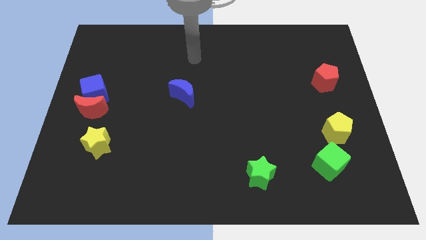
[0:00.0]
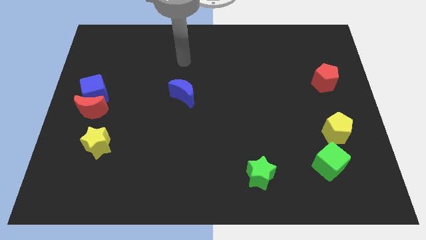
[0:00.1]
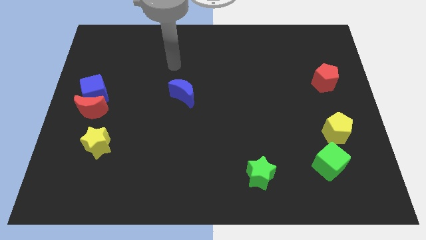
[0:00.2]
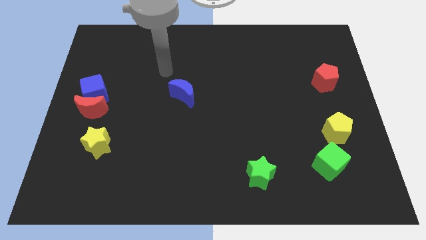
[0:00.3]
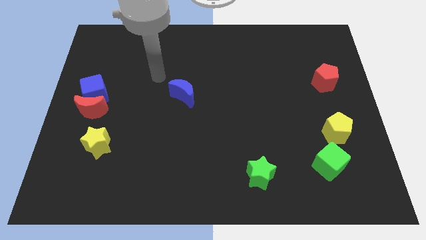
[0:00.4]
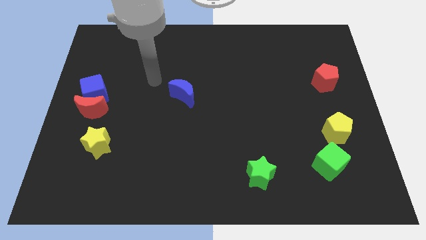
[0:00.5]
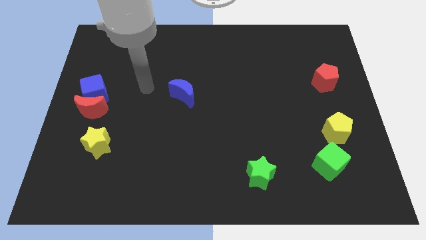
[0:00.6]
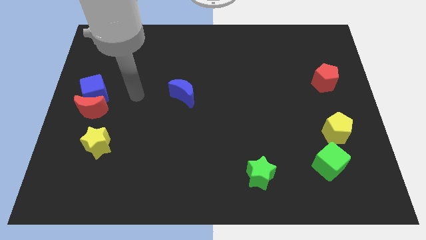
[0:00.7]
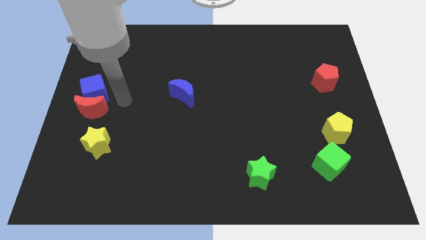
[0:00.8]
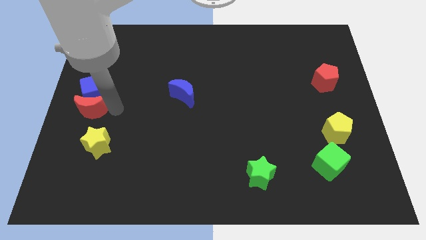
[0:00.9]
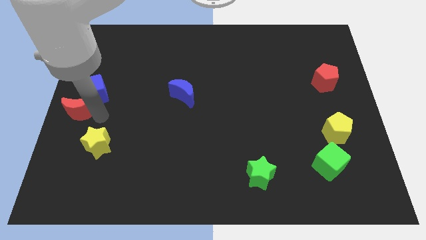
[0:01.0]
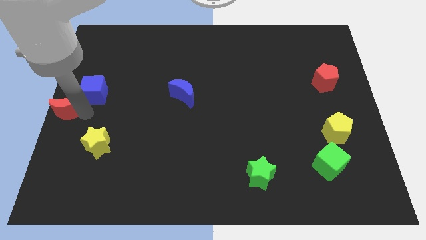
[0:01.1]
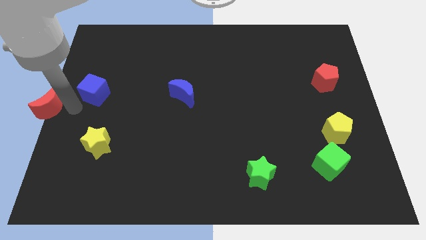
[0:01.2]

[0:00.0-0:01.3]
separate the blue cube from the red moon

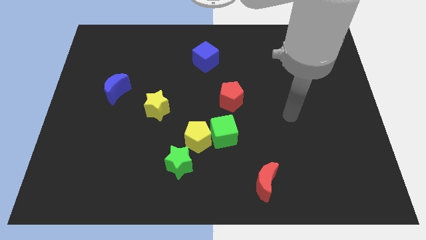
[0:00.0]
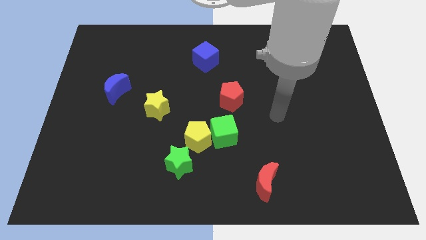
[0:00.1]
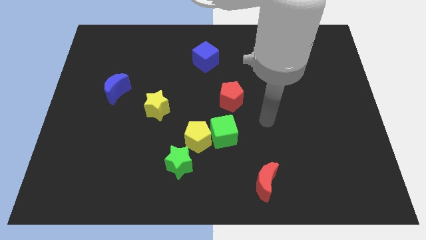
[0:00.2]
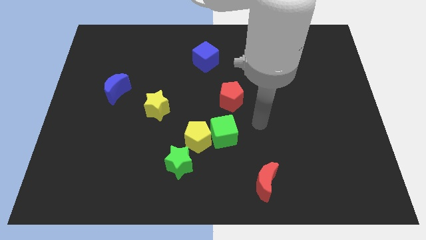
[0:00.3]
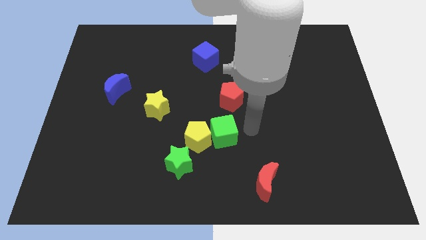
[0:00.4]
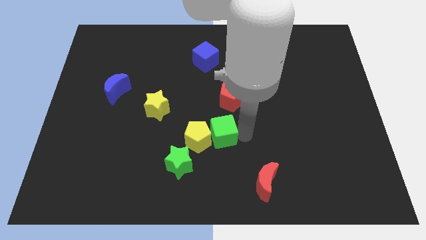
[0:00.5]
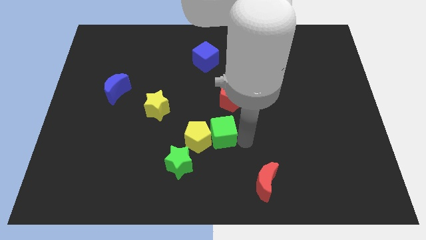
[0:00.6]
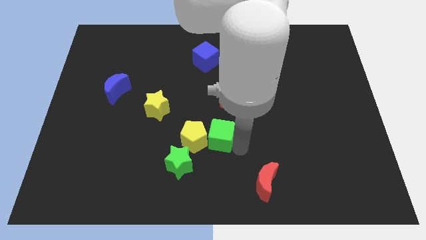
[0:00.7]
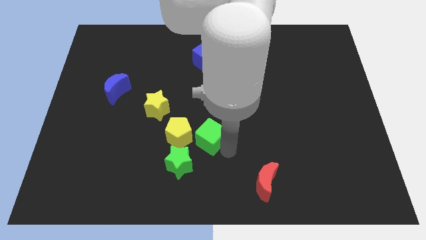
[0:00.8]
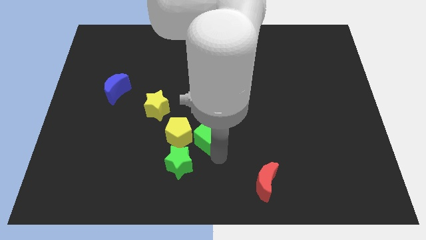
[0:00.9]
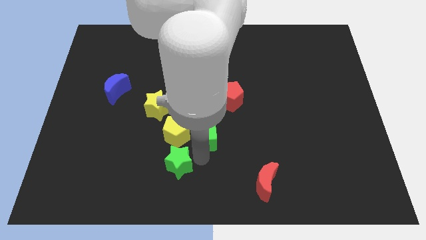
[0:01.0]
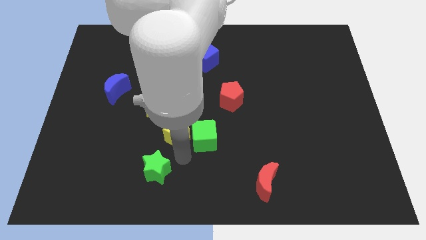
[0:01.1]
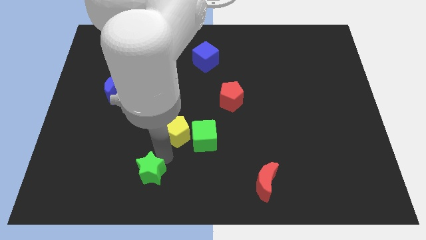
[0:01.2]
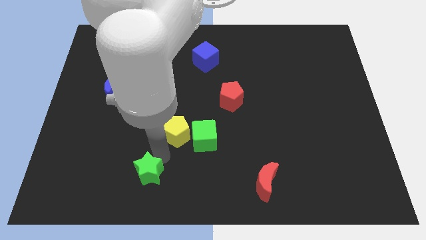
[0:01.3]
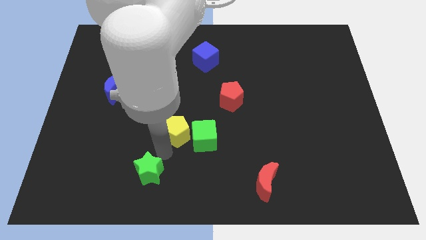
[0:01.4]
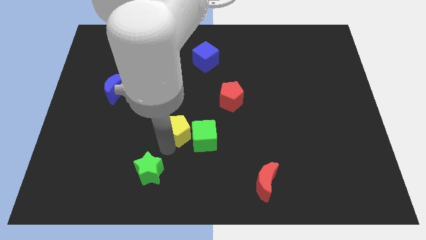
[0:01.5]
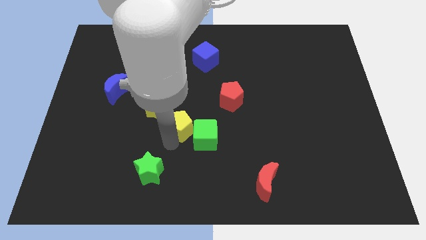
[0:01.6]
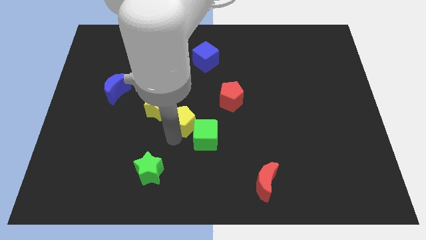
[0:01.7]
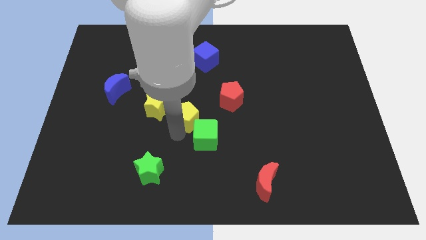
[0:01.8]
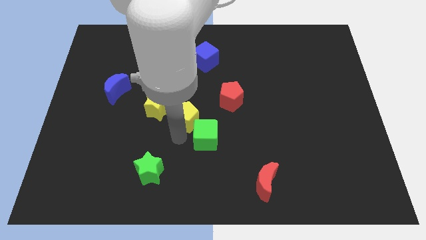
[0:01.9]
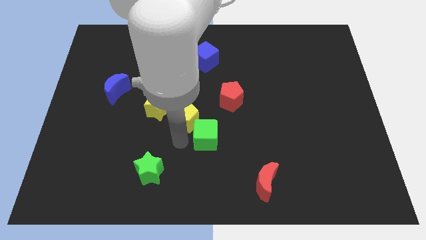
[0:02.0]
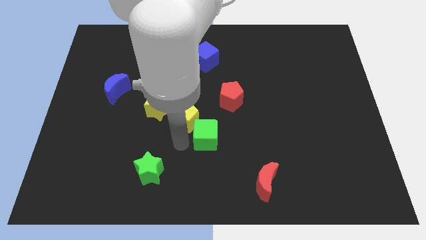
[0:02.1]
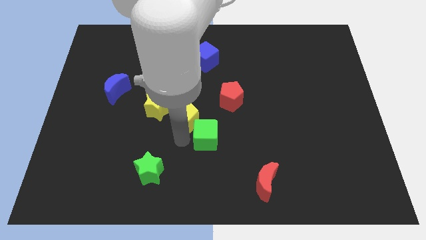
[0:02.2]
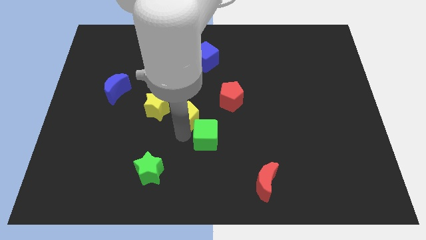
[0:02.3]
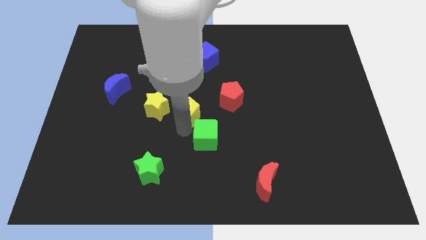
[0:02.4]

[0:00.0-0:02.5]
move the yellow pentagon away from the green cube and green star

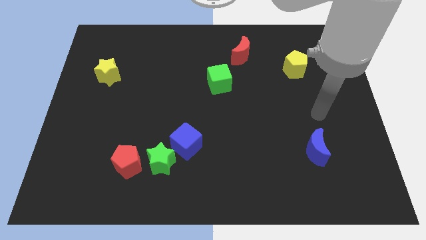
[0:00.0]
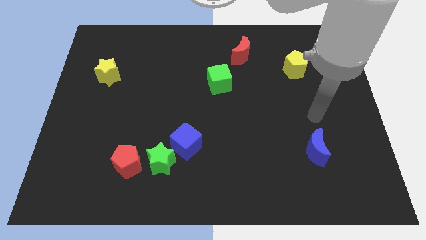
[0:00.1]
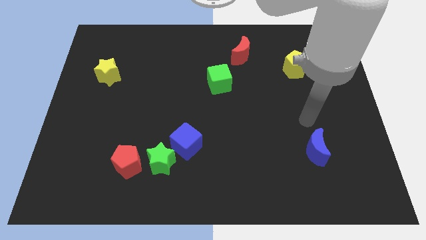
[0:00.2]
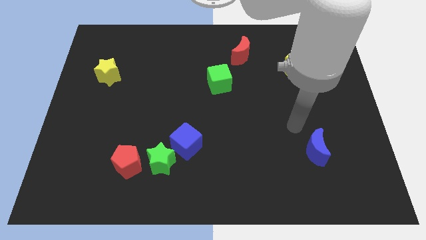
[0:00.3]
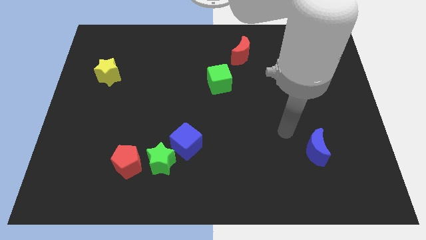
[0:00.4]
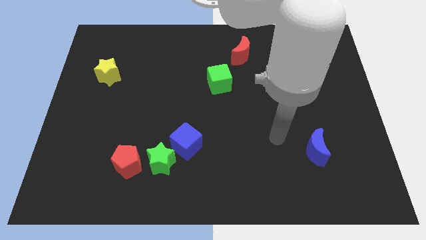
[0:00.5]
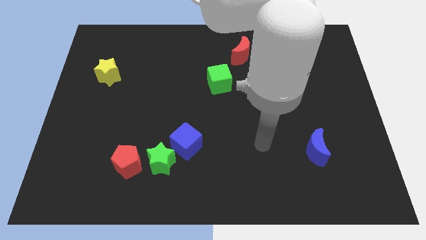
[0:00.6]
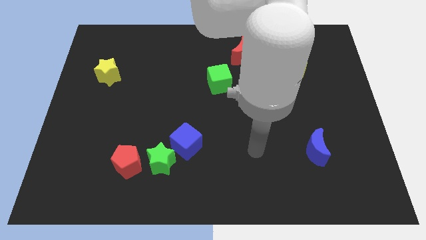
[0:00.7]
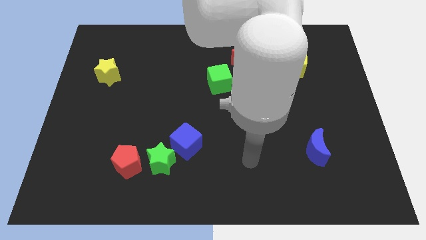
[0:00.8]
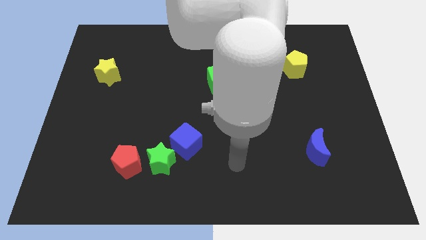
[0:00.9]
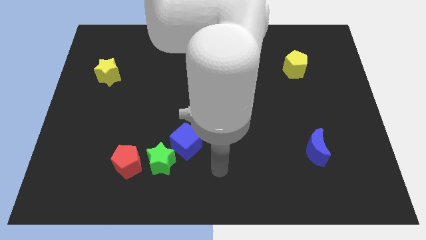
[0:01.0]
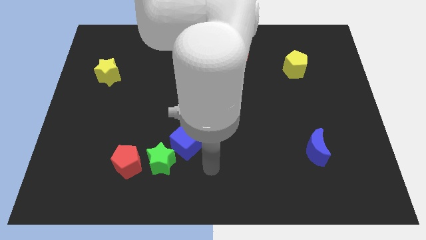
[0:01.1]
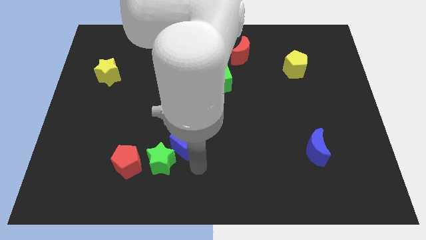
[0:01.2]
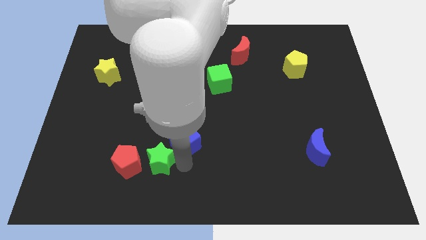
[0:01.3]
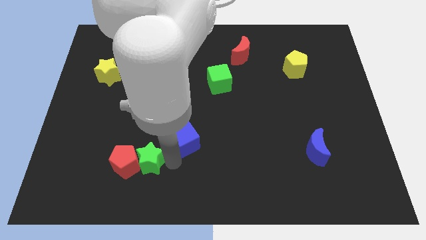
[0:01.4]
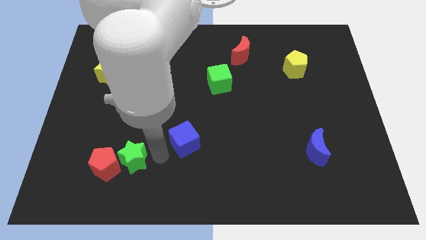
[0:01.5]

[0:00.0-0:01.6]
pull the blue cube apart from the green star

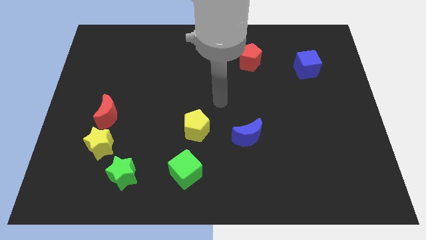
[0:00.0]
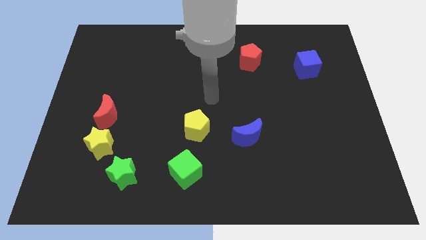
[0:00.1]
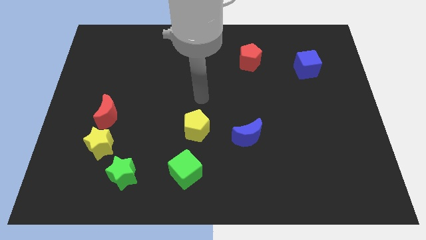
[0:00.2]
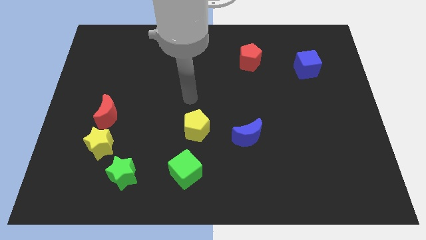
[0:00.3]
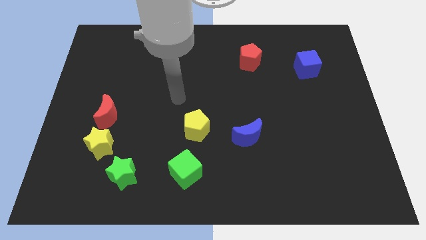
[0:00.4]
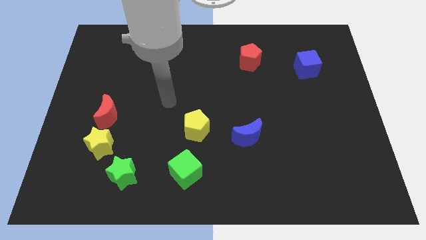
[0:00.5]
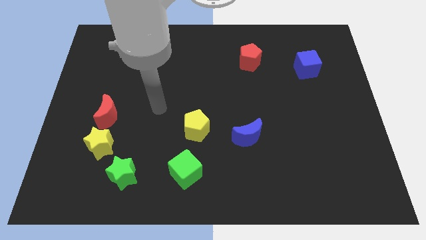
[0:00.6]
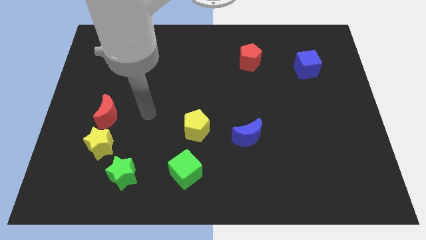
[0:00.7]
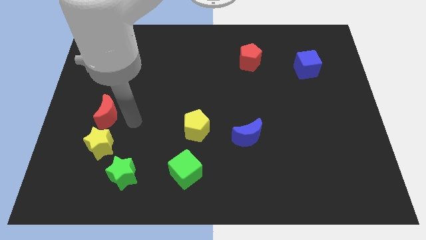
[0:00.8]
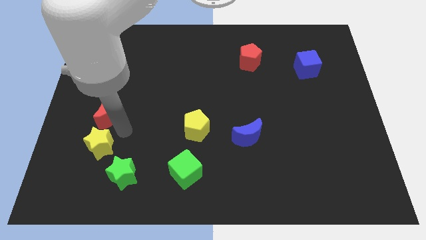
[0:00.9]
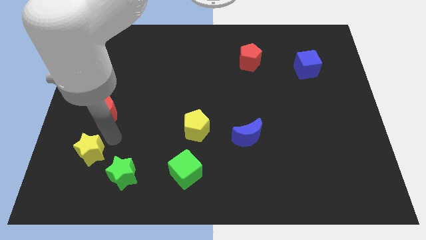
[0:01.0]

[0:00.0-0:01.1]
separate the red moon from the yellow star

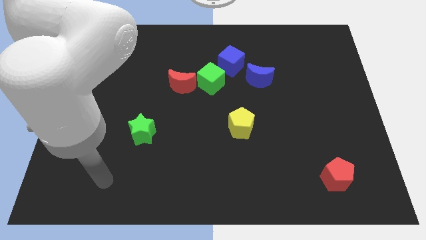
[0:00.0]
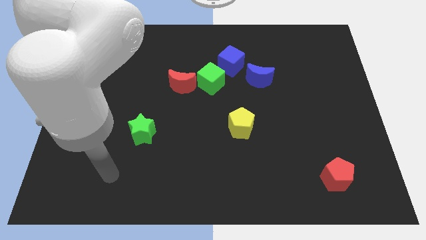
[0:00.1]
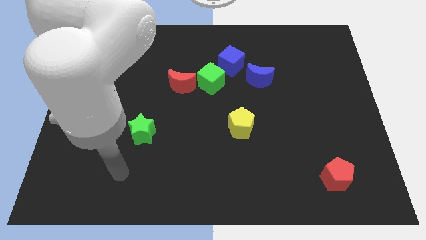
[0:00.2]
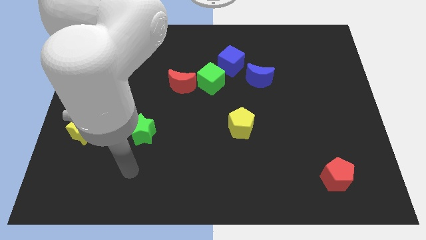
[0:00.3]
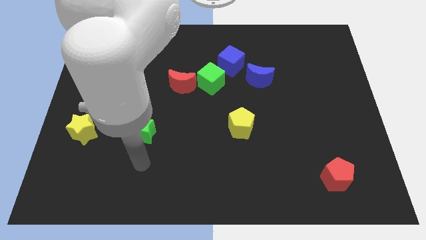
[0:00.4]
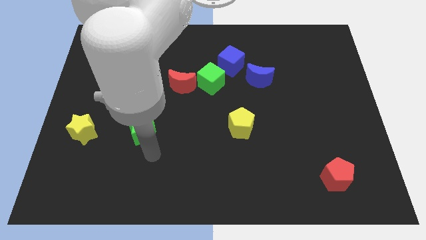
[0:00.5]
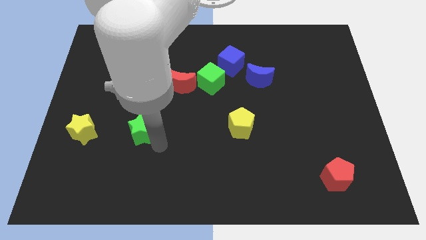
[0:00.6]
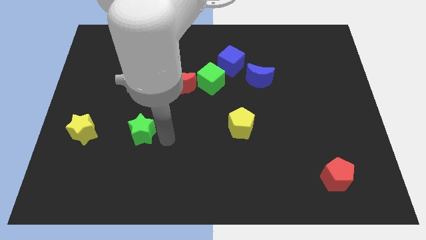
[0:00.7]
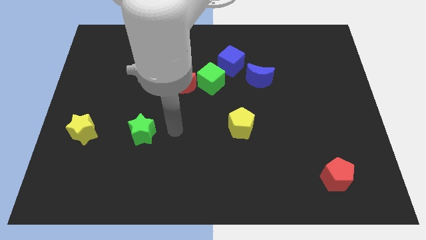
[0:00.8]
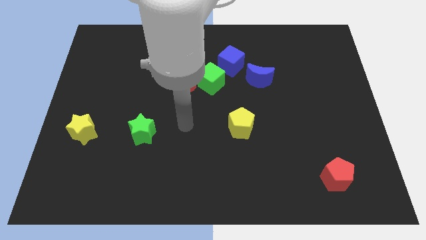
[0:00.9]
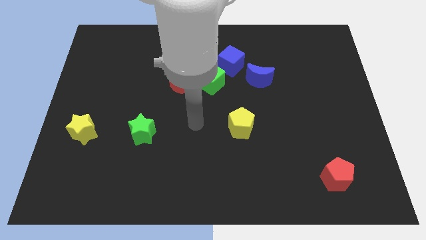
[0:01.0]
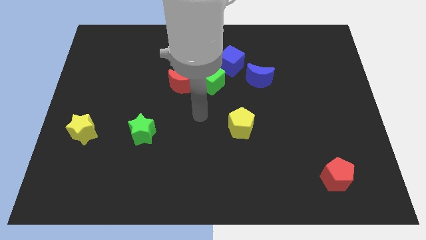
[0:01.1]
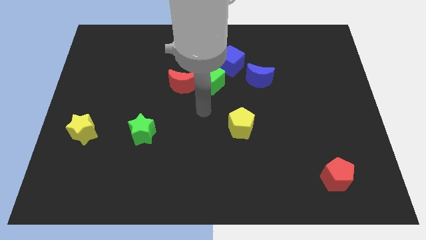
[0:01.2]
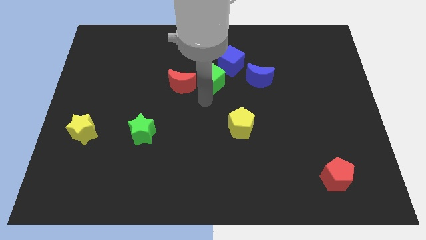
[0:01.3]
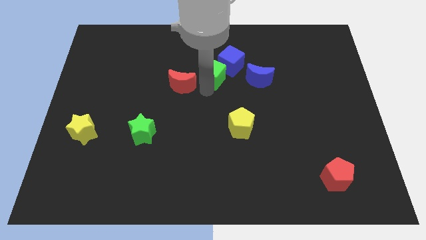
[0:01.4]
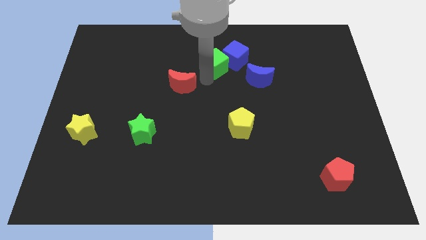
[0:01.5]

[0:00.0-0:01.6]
pull the red moon apart from the green cube

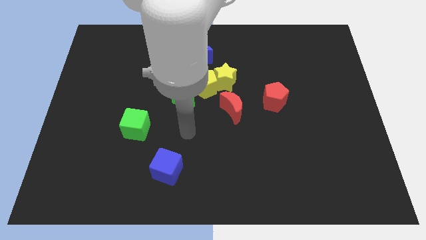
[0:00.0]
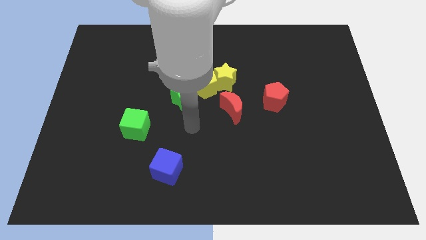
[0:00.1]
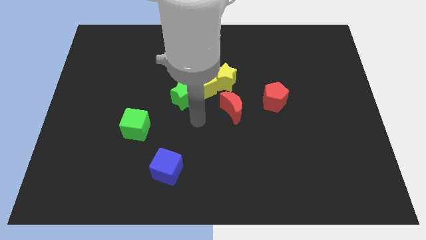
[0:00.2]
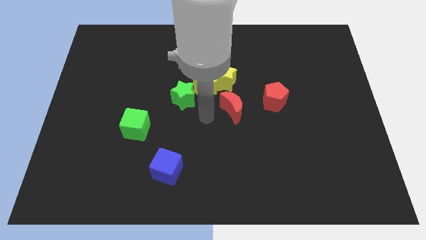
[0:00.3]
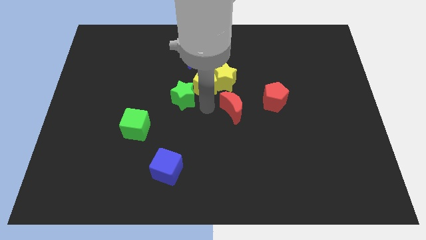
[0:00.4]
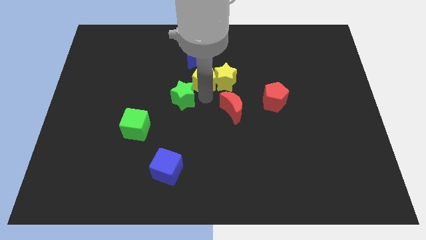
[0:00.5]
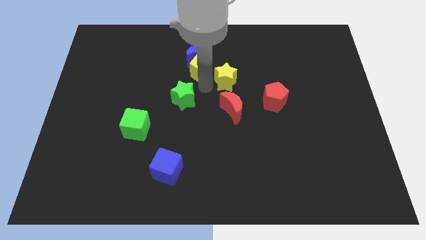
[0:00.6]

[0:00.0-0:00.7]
pull the green star apart from the yellow pentagon

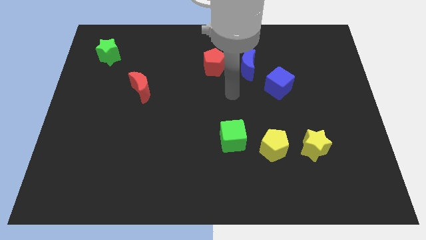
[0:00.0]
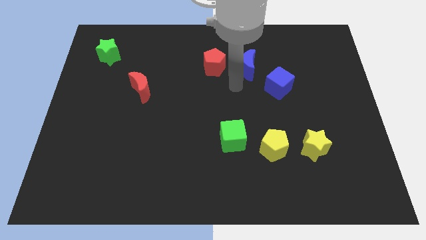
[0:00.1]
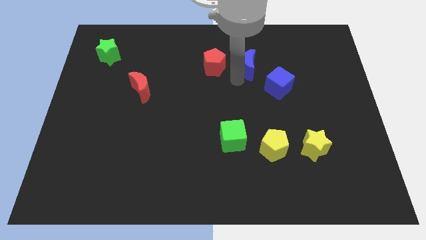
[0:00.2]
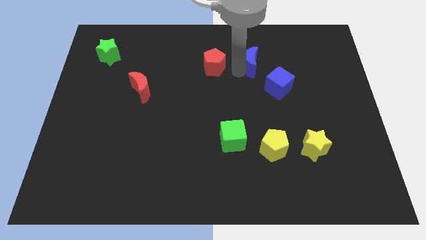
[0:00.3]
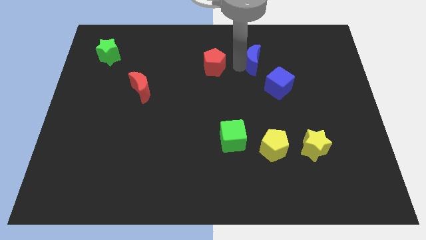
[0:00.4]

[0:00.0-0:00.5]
separate the red pentagon from the blue moon
